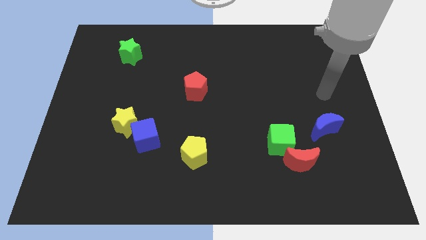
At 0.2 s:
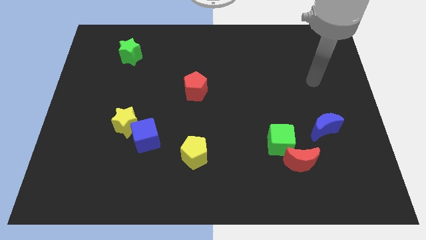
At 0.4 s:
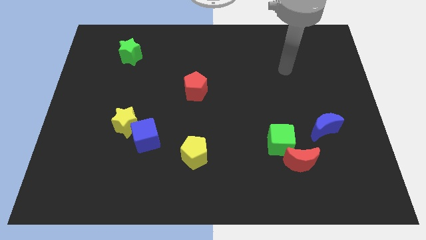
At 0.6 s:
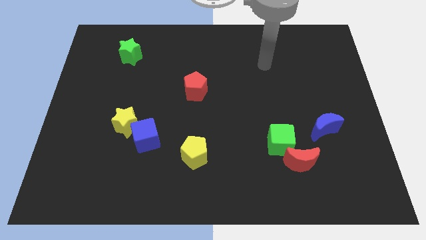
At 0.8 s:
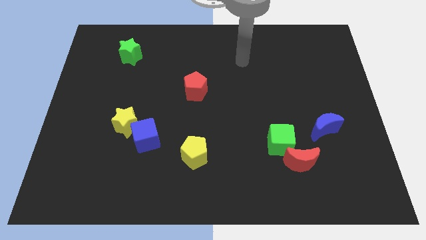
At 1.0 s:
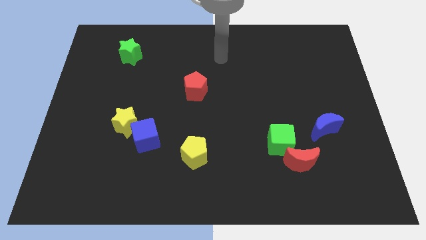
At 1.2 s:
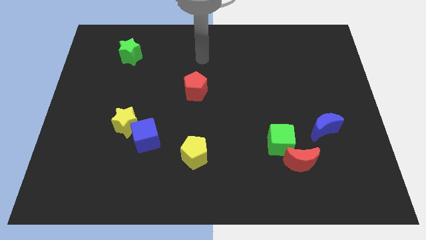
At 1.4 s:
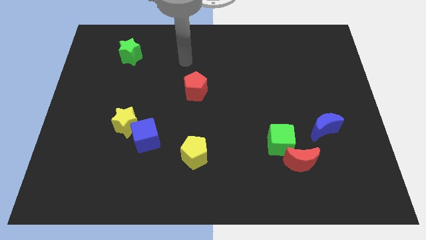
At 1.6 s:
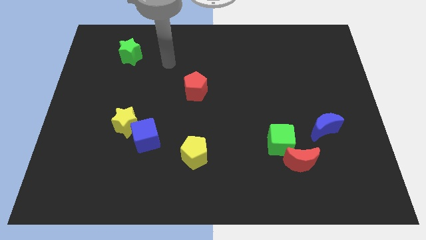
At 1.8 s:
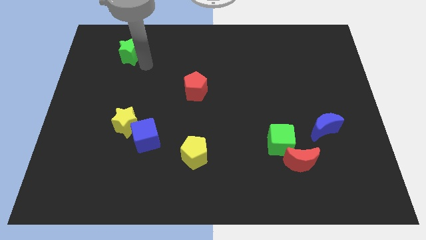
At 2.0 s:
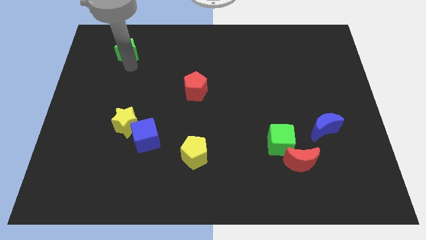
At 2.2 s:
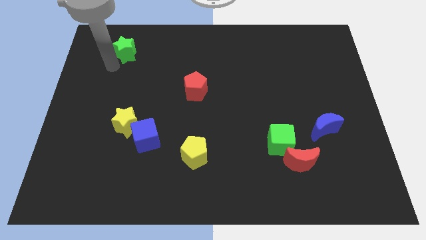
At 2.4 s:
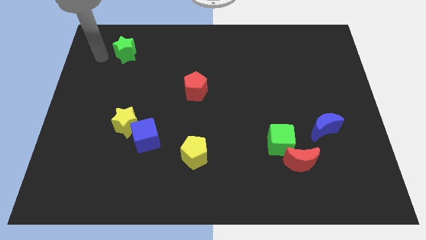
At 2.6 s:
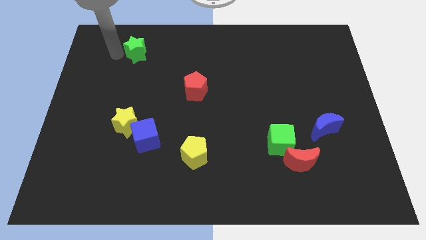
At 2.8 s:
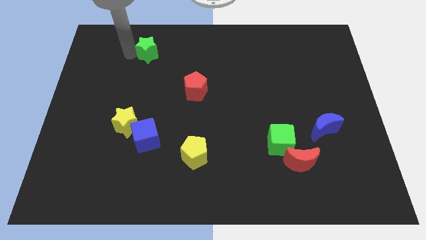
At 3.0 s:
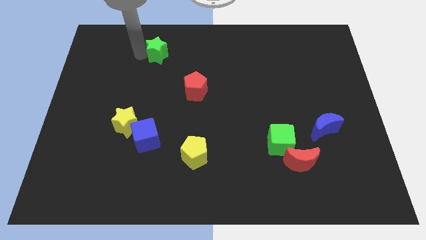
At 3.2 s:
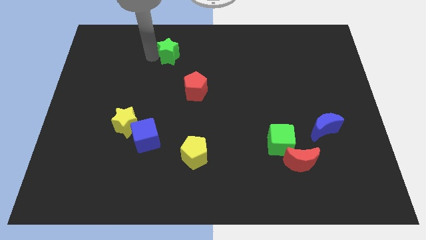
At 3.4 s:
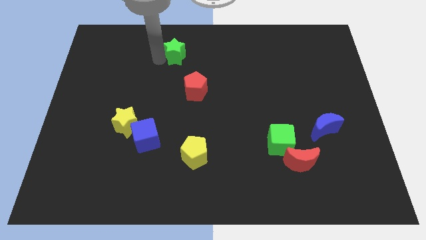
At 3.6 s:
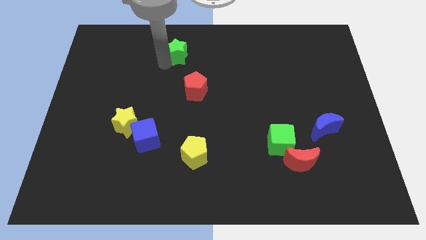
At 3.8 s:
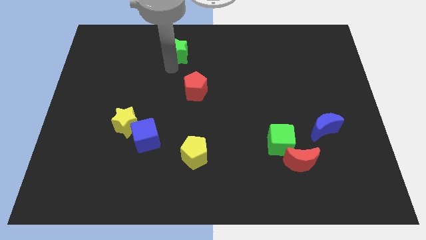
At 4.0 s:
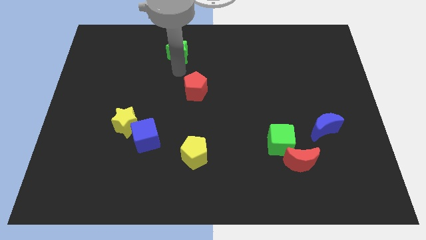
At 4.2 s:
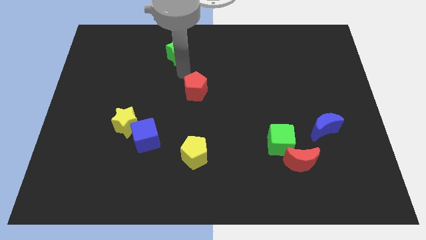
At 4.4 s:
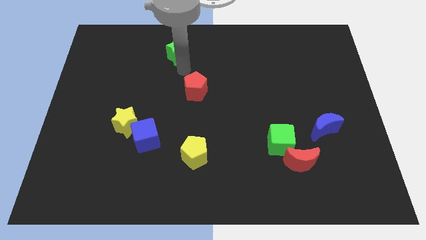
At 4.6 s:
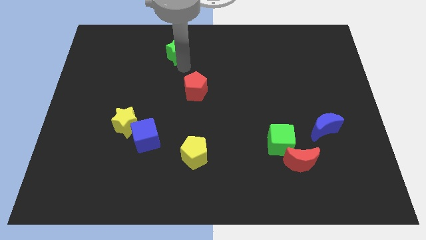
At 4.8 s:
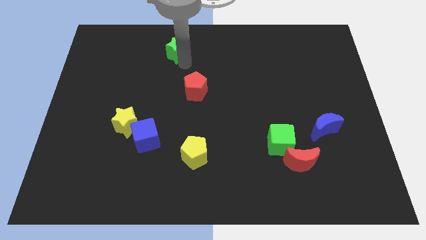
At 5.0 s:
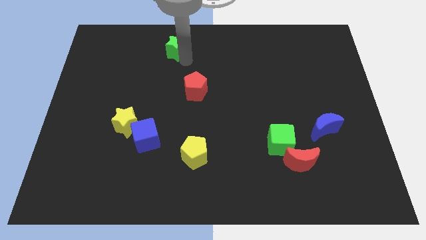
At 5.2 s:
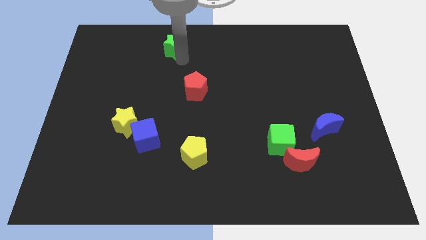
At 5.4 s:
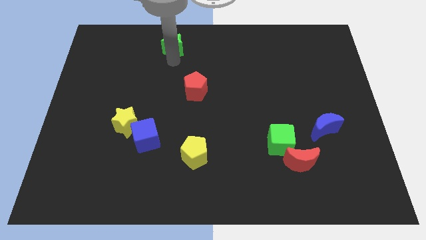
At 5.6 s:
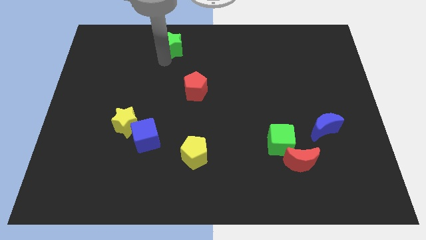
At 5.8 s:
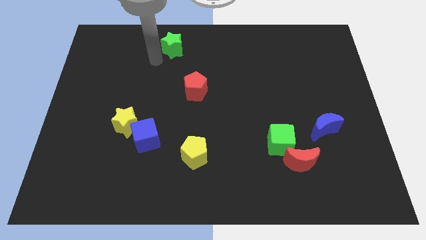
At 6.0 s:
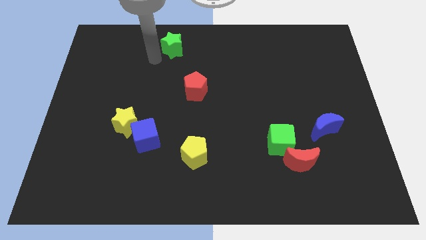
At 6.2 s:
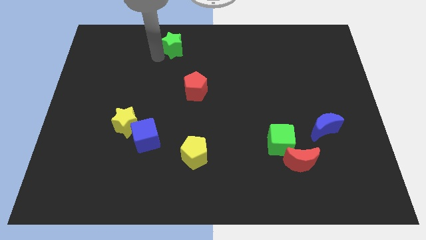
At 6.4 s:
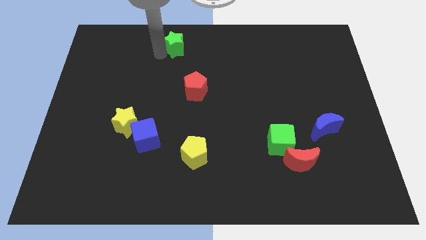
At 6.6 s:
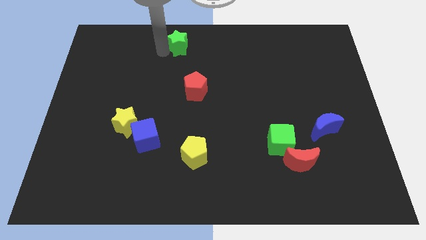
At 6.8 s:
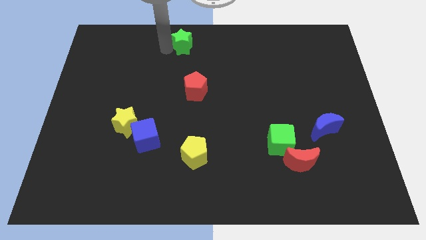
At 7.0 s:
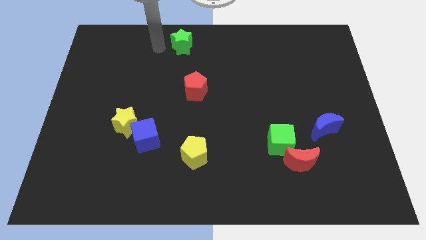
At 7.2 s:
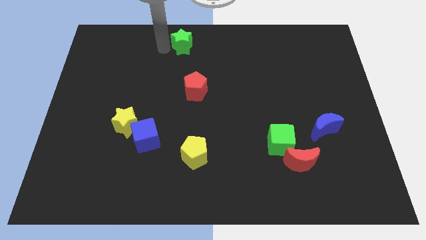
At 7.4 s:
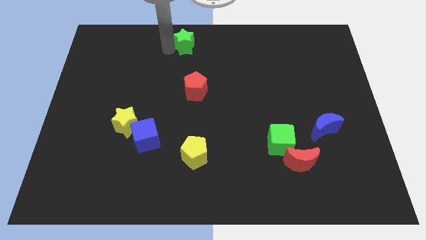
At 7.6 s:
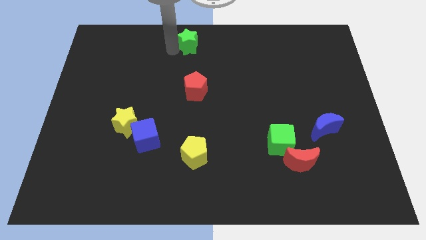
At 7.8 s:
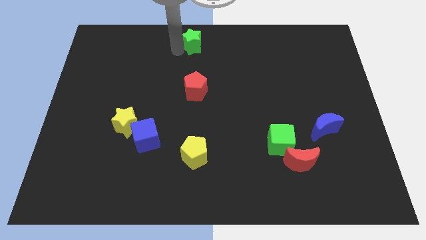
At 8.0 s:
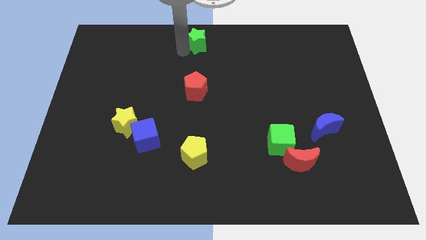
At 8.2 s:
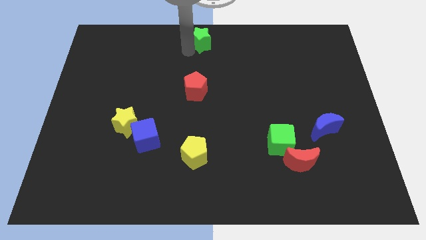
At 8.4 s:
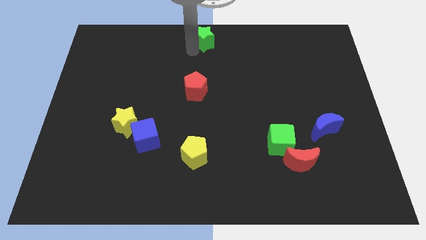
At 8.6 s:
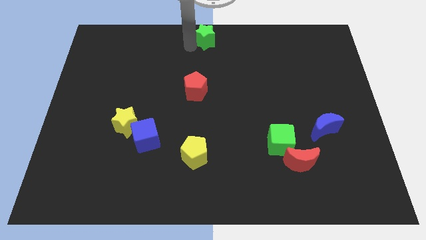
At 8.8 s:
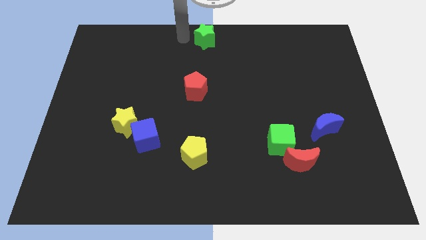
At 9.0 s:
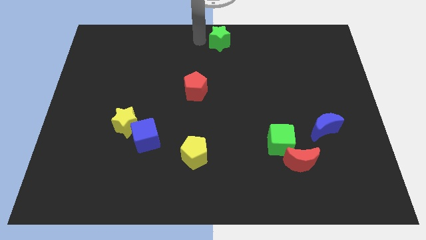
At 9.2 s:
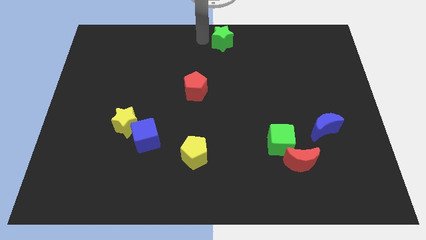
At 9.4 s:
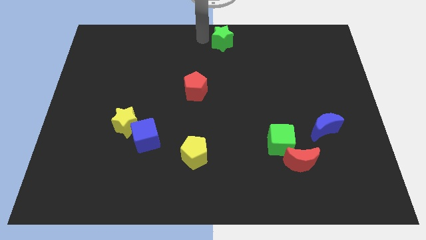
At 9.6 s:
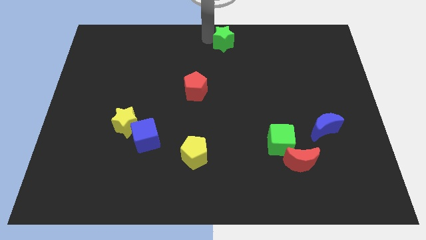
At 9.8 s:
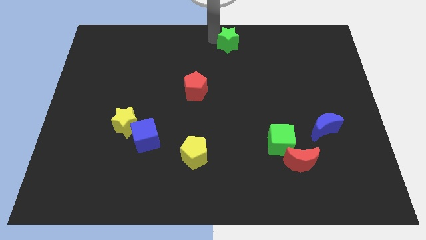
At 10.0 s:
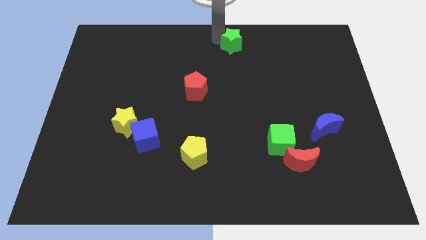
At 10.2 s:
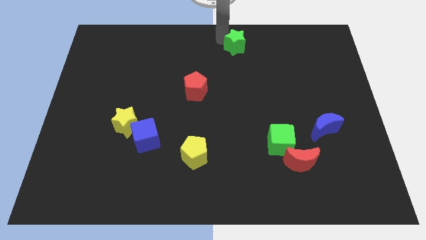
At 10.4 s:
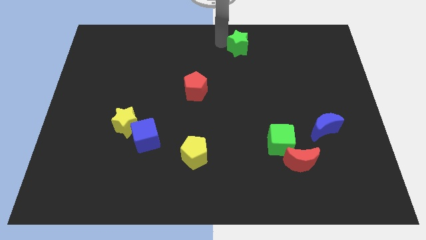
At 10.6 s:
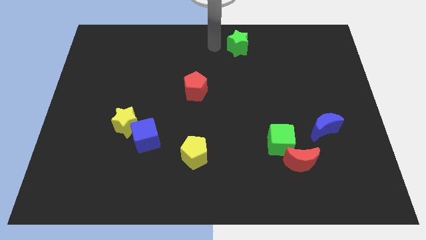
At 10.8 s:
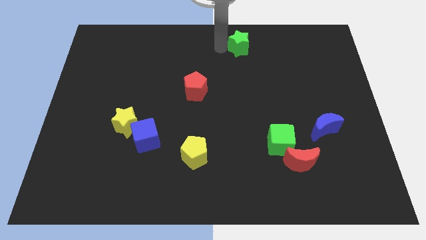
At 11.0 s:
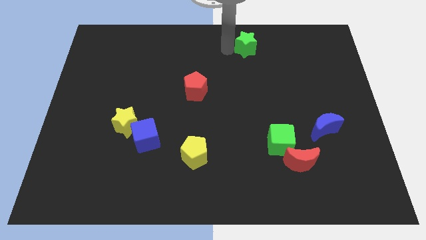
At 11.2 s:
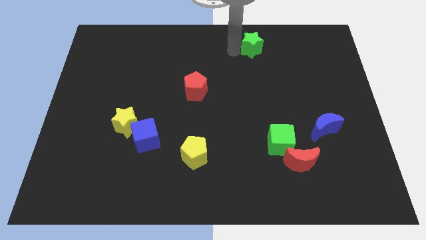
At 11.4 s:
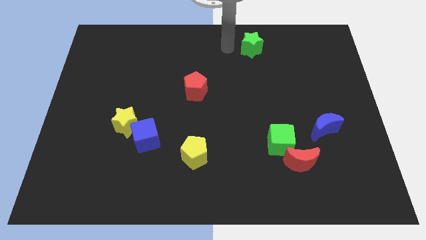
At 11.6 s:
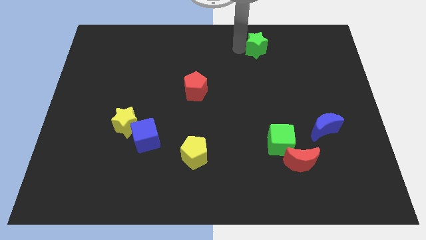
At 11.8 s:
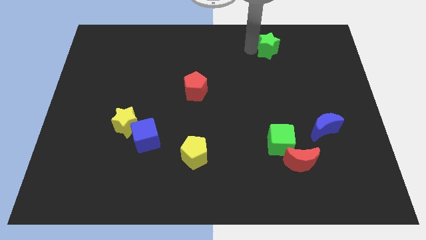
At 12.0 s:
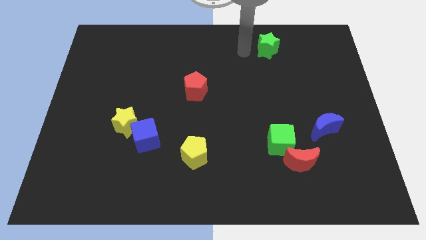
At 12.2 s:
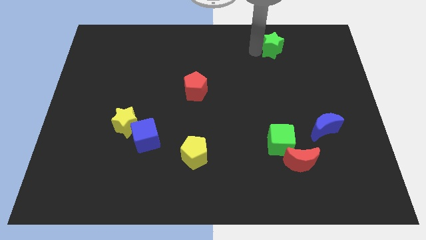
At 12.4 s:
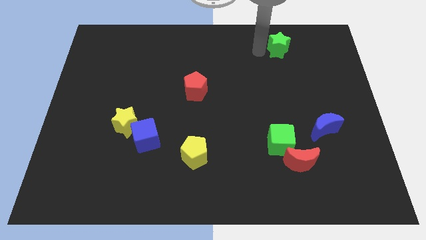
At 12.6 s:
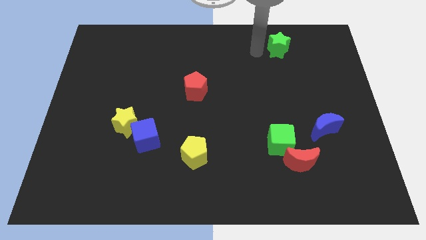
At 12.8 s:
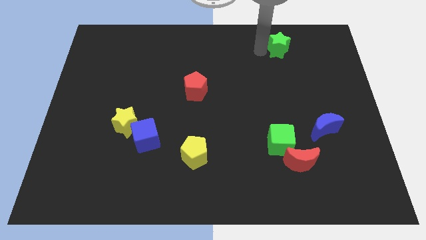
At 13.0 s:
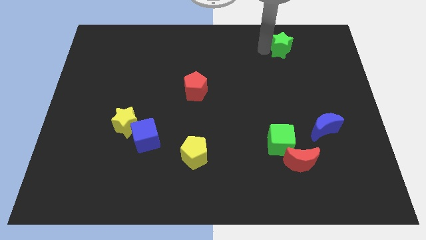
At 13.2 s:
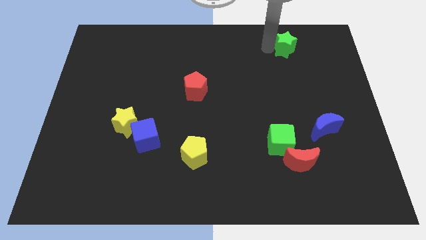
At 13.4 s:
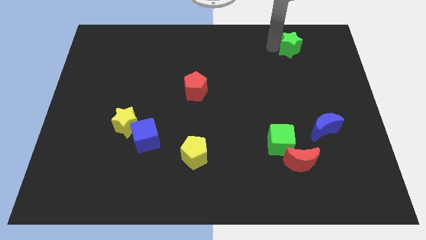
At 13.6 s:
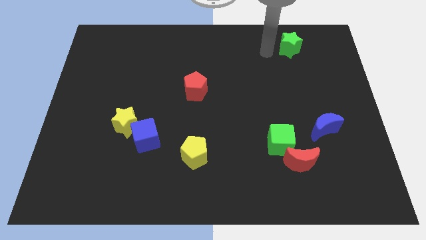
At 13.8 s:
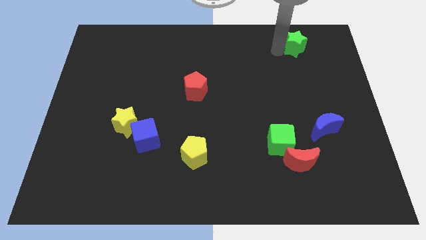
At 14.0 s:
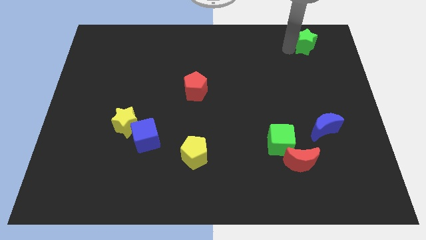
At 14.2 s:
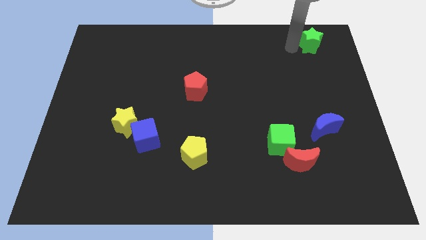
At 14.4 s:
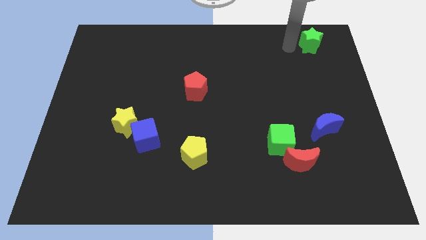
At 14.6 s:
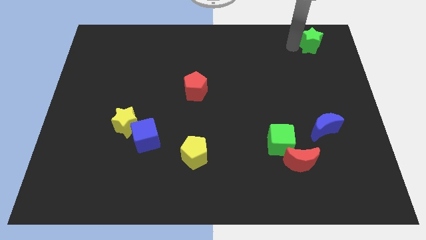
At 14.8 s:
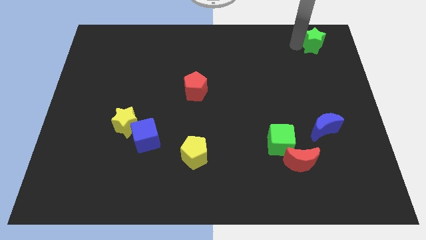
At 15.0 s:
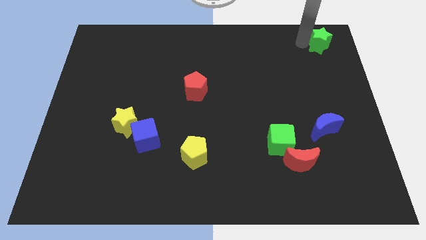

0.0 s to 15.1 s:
put the green star to the top right of the board
